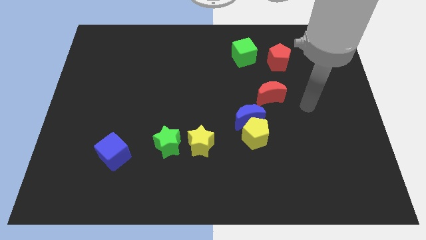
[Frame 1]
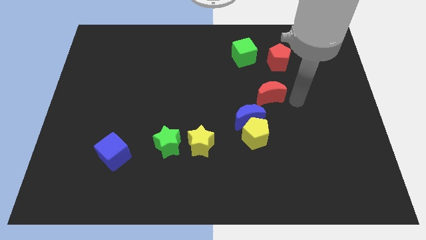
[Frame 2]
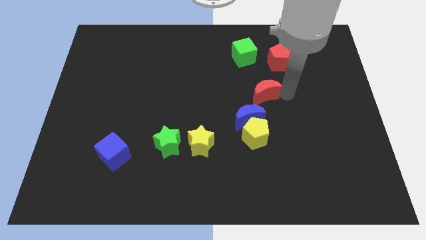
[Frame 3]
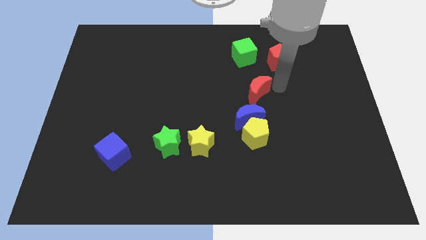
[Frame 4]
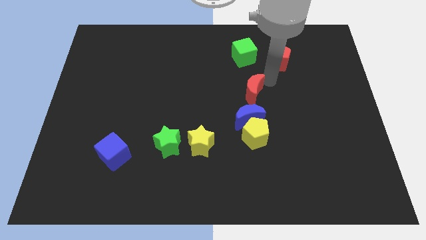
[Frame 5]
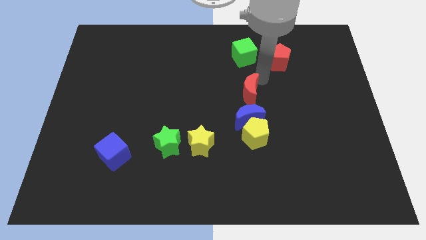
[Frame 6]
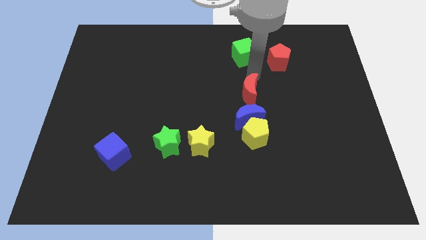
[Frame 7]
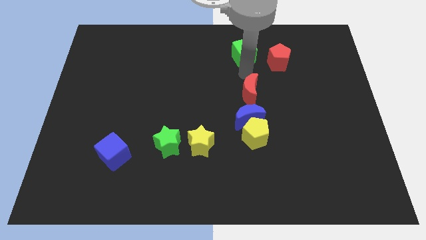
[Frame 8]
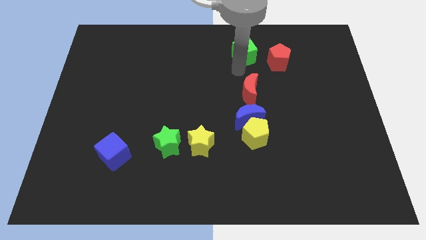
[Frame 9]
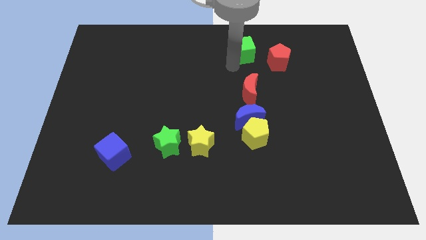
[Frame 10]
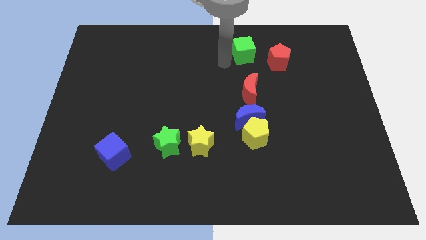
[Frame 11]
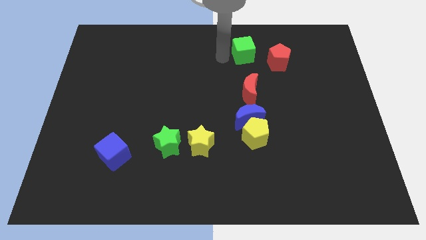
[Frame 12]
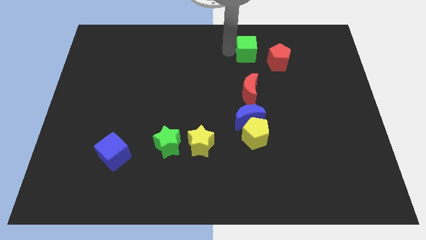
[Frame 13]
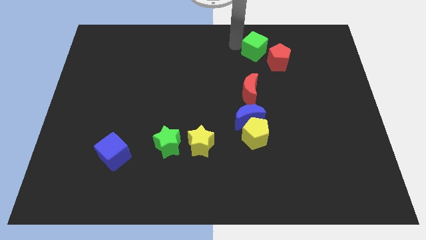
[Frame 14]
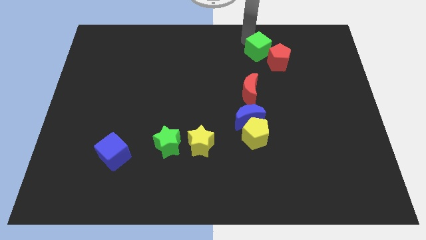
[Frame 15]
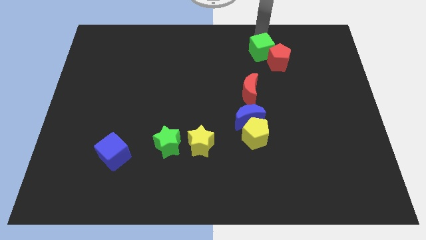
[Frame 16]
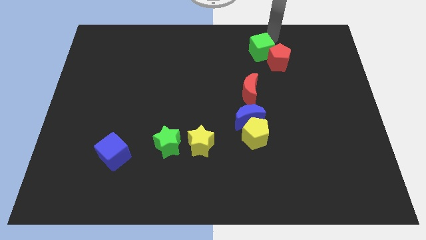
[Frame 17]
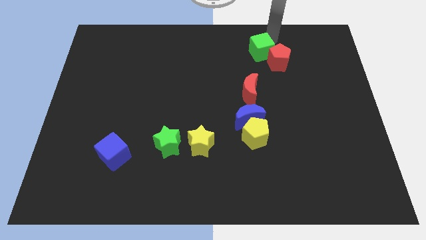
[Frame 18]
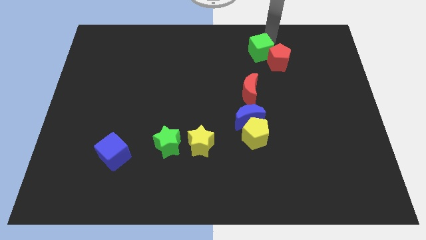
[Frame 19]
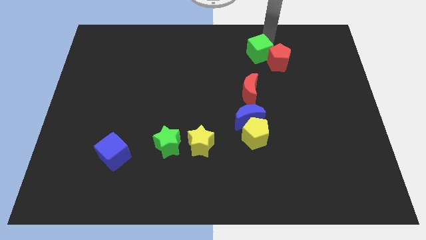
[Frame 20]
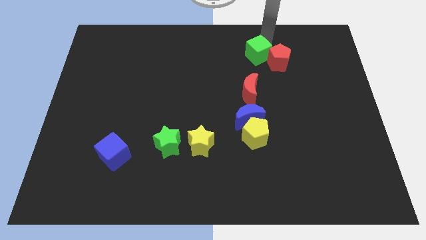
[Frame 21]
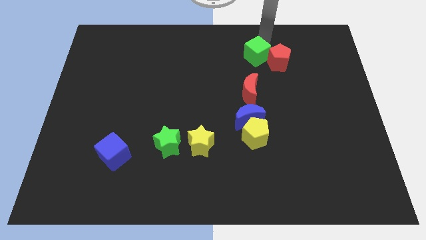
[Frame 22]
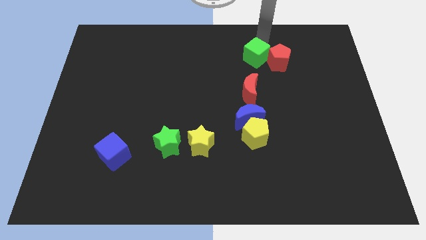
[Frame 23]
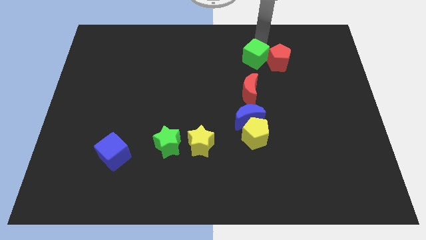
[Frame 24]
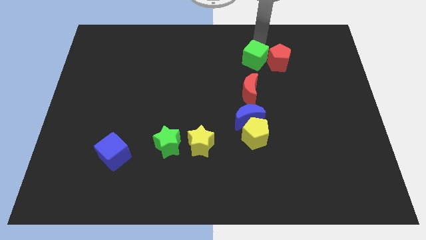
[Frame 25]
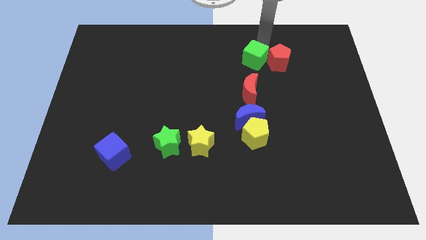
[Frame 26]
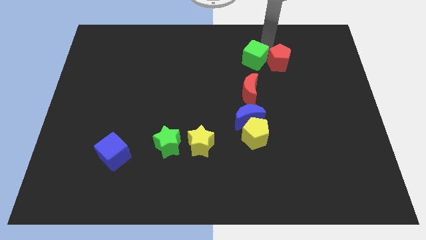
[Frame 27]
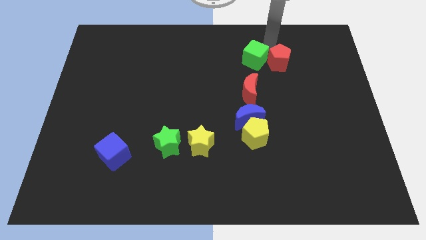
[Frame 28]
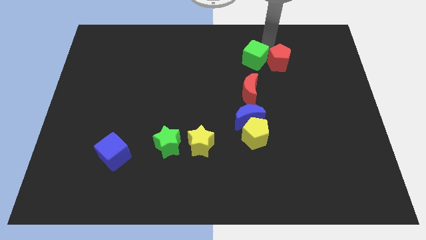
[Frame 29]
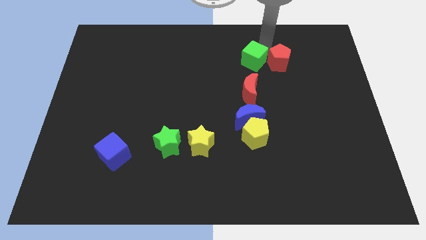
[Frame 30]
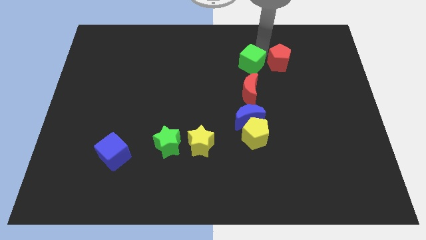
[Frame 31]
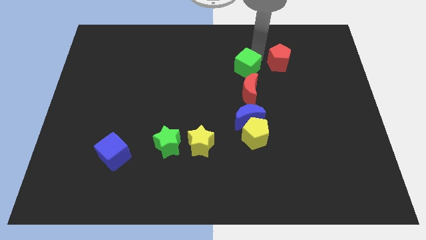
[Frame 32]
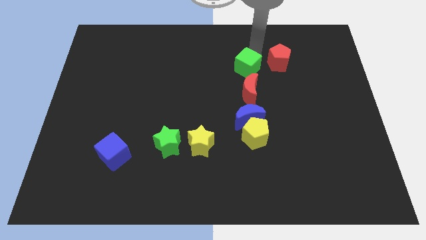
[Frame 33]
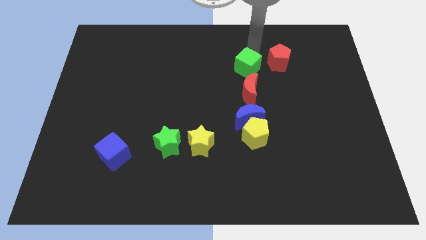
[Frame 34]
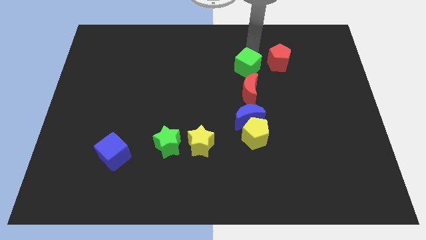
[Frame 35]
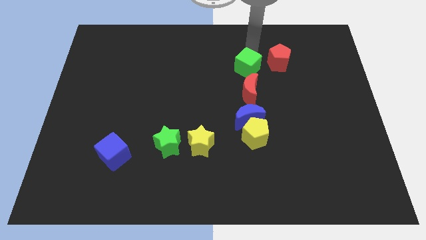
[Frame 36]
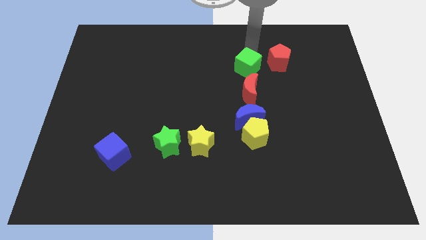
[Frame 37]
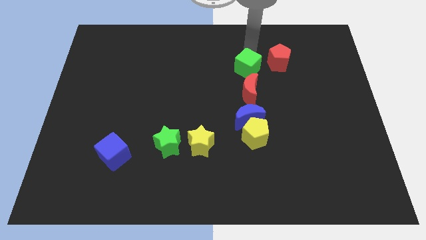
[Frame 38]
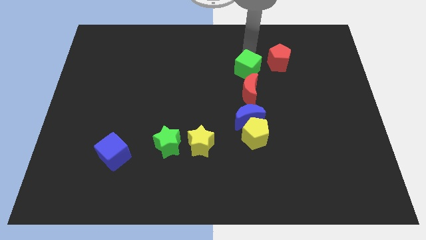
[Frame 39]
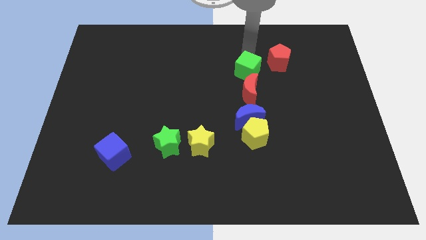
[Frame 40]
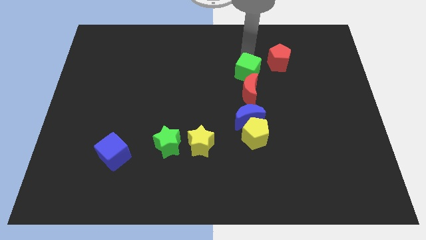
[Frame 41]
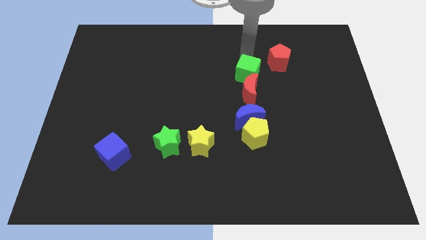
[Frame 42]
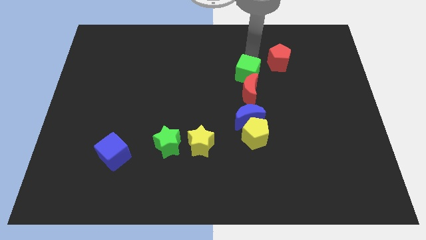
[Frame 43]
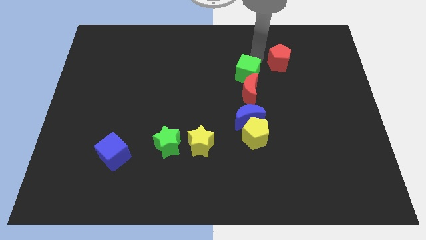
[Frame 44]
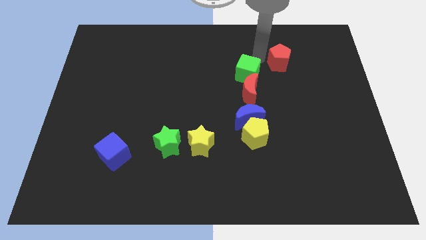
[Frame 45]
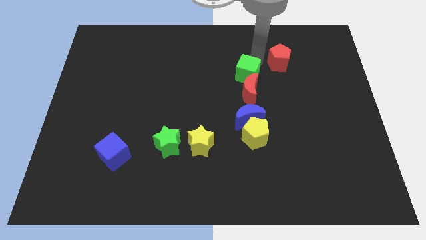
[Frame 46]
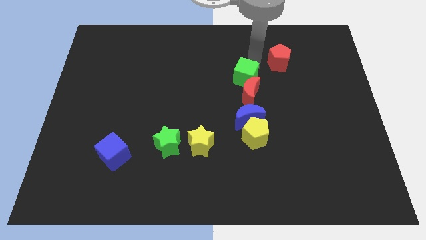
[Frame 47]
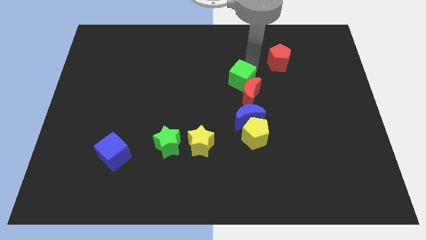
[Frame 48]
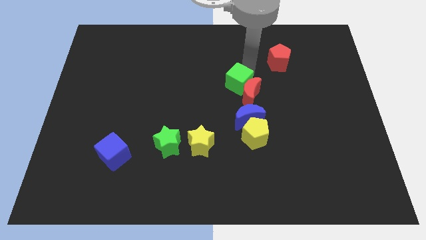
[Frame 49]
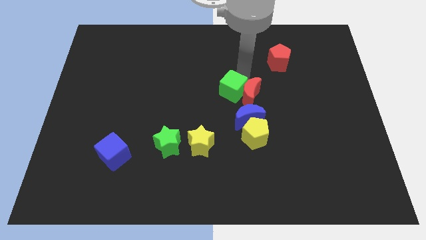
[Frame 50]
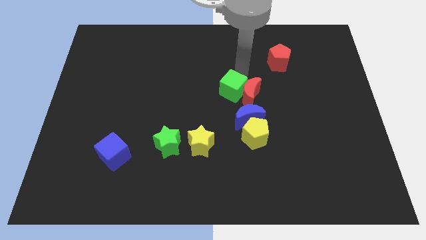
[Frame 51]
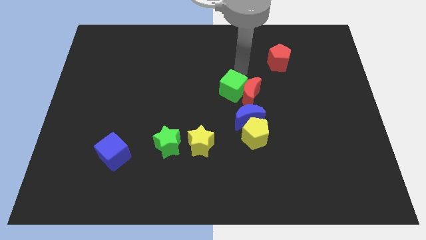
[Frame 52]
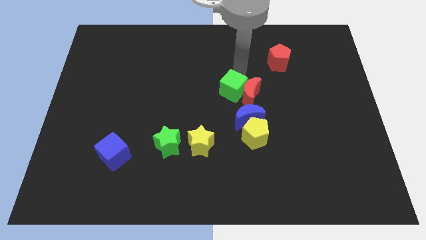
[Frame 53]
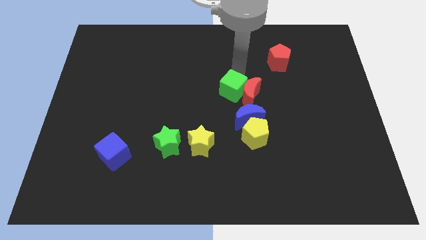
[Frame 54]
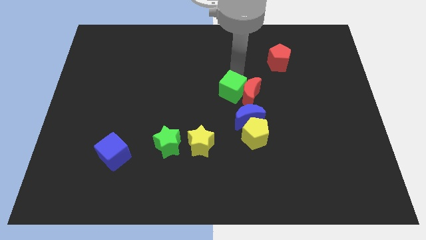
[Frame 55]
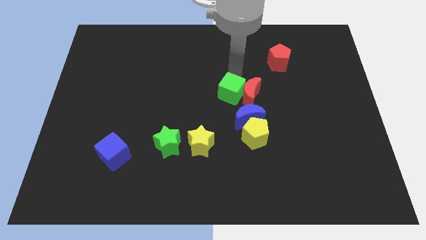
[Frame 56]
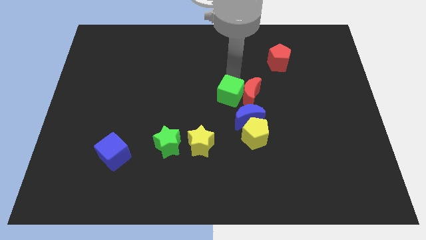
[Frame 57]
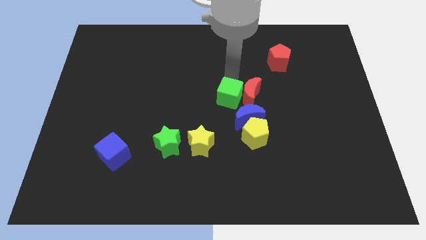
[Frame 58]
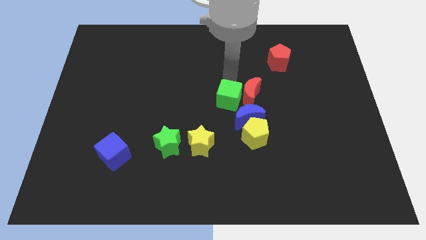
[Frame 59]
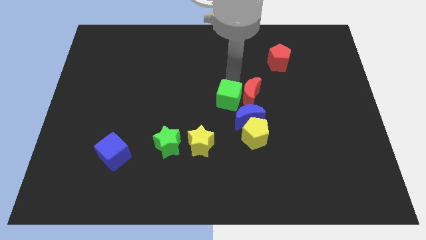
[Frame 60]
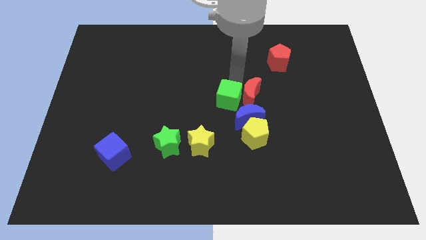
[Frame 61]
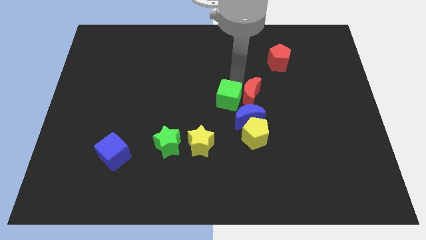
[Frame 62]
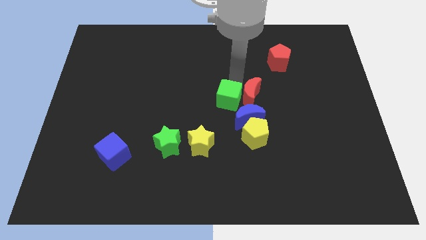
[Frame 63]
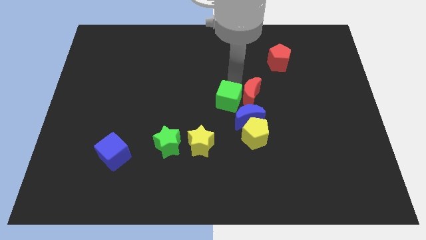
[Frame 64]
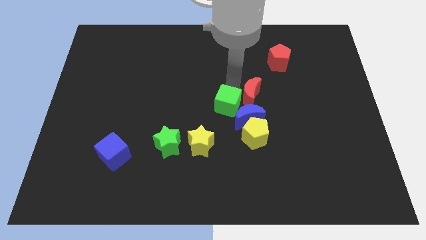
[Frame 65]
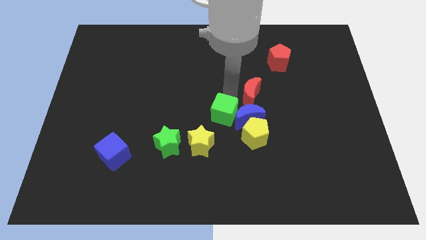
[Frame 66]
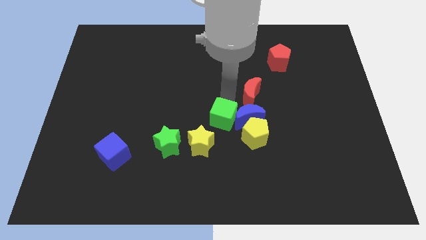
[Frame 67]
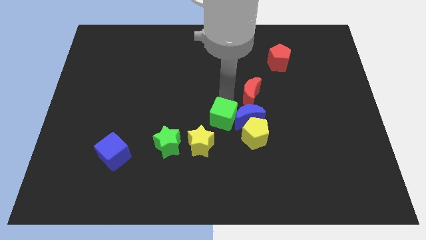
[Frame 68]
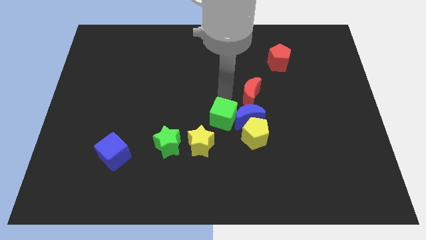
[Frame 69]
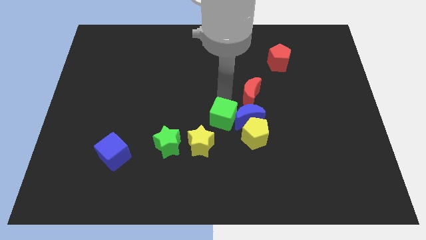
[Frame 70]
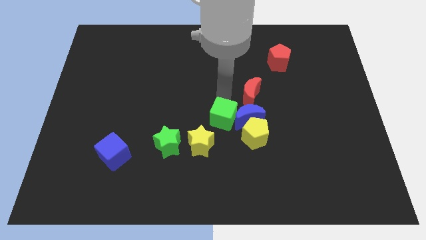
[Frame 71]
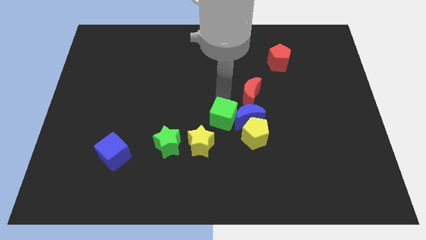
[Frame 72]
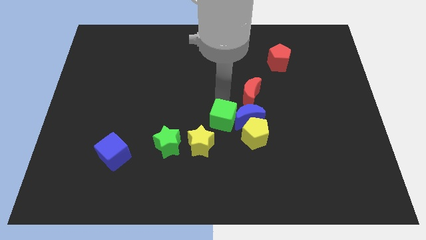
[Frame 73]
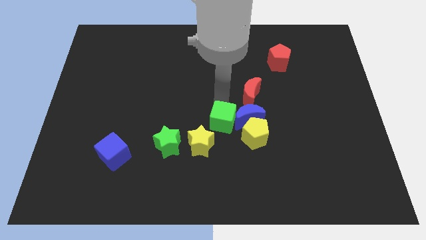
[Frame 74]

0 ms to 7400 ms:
push the green cube downwards

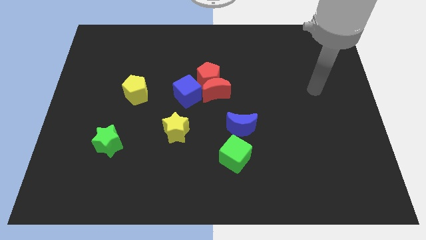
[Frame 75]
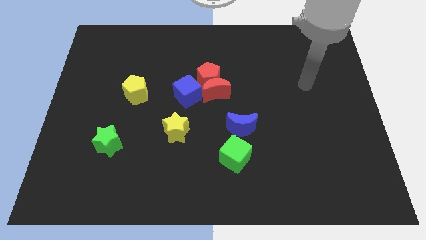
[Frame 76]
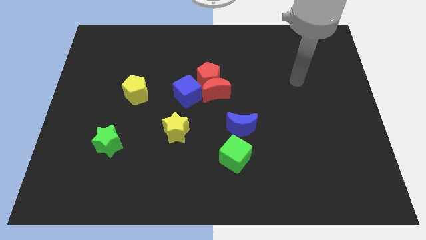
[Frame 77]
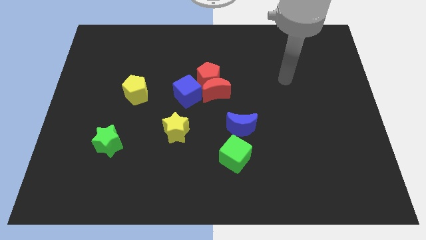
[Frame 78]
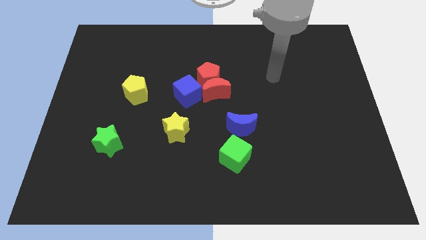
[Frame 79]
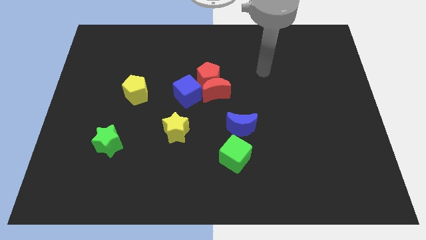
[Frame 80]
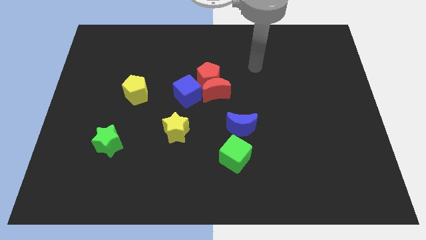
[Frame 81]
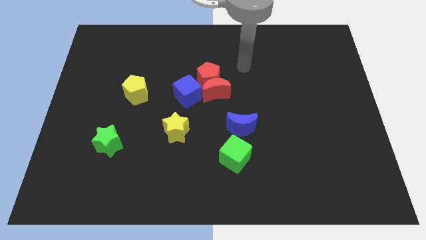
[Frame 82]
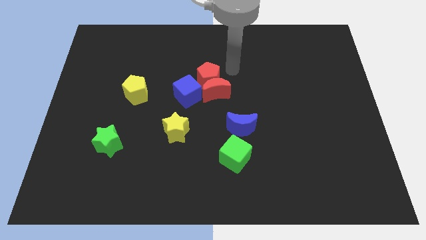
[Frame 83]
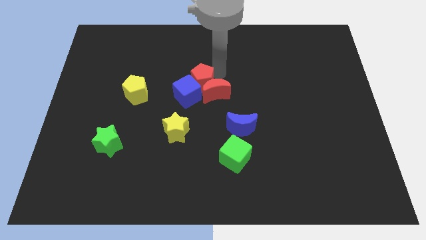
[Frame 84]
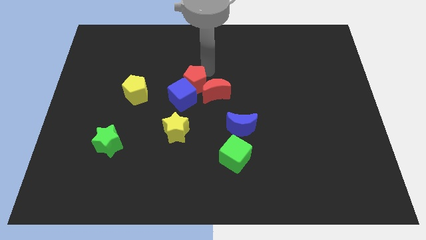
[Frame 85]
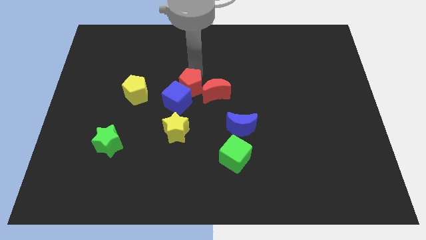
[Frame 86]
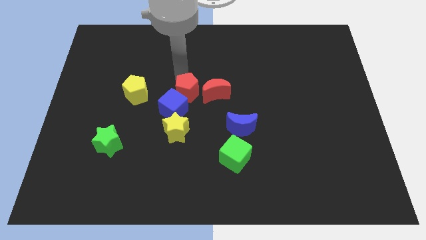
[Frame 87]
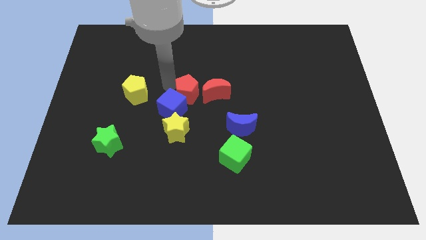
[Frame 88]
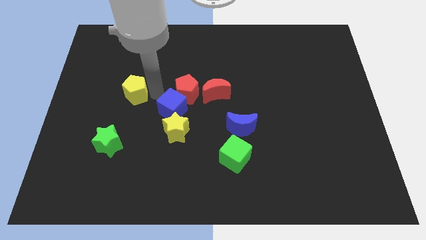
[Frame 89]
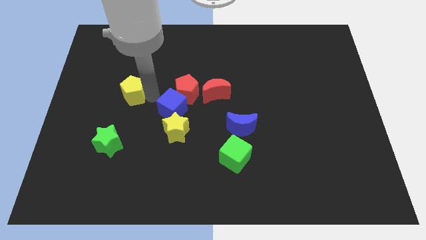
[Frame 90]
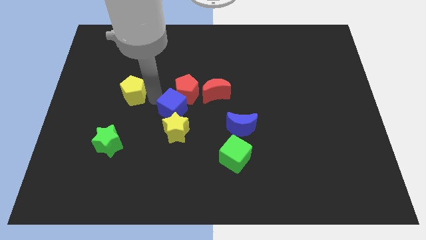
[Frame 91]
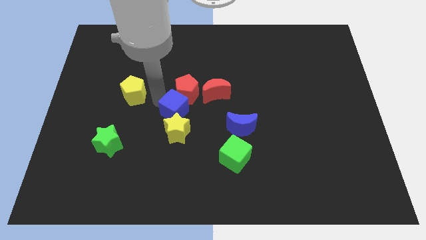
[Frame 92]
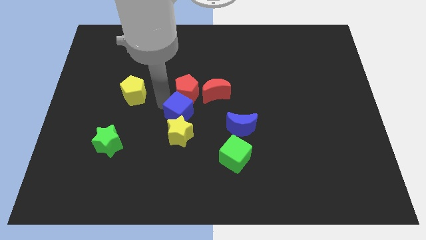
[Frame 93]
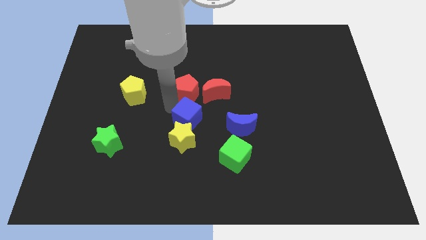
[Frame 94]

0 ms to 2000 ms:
push the blue cube downwards a little
